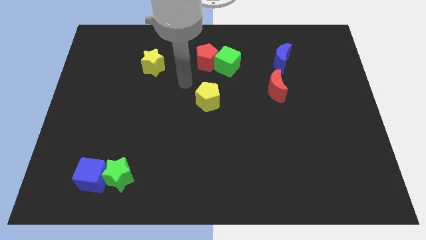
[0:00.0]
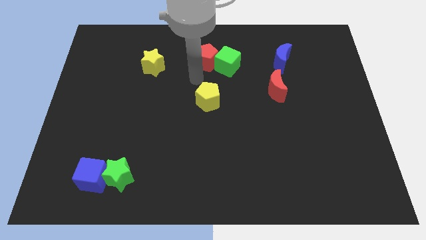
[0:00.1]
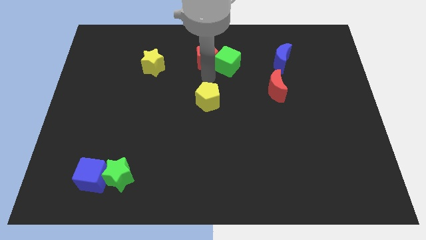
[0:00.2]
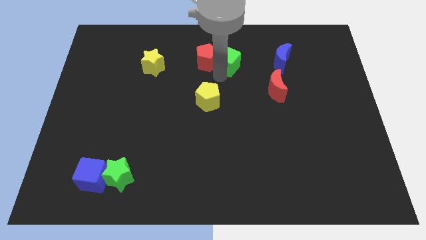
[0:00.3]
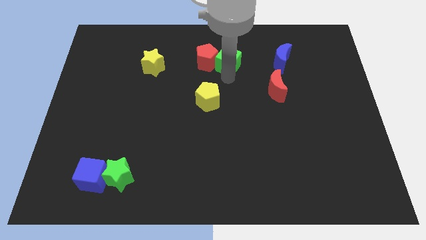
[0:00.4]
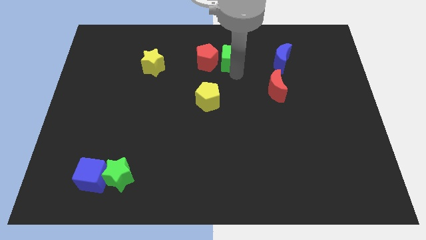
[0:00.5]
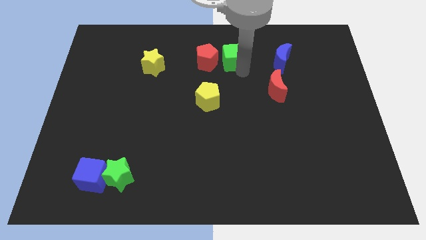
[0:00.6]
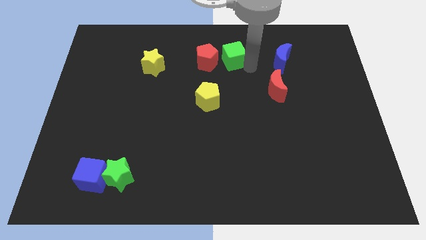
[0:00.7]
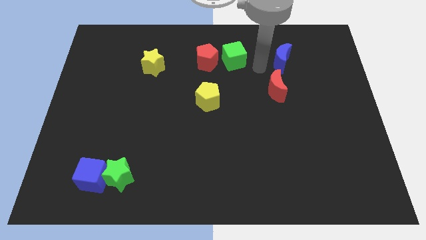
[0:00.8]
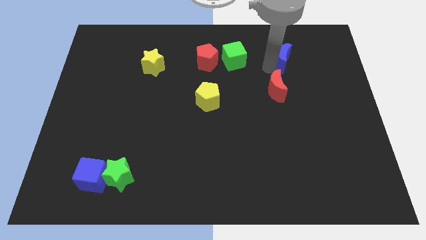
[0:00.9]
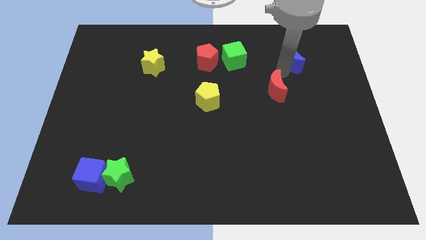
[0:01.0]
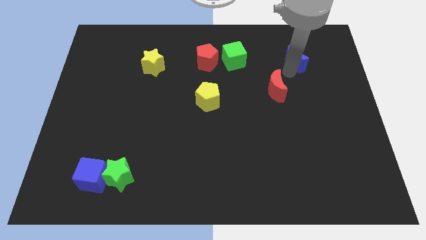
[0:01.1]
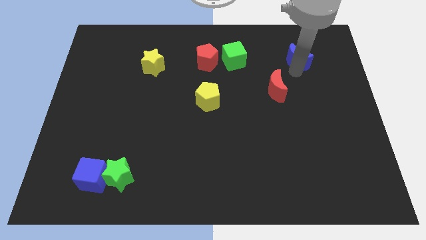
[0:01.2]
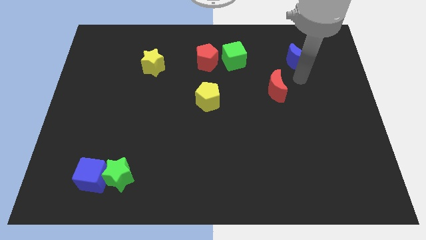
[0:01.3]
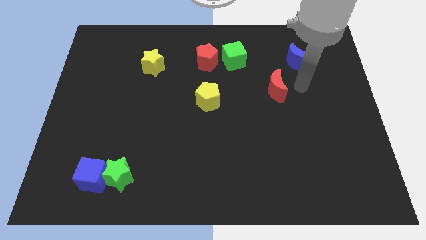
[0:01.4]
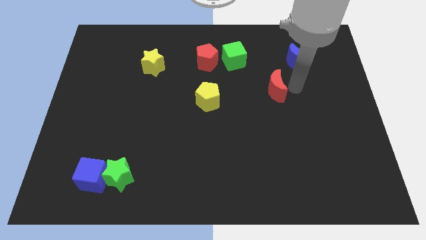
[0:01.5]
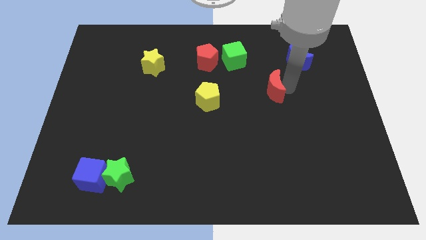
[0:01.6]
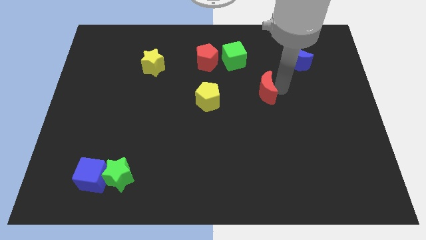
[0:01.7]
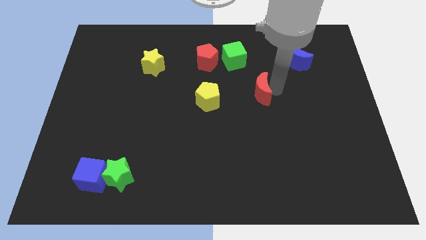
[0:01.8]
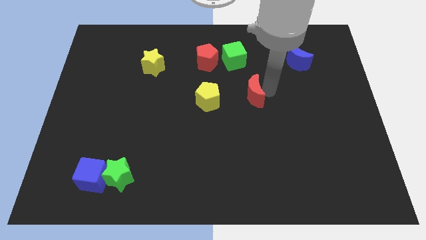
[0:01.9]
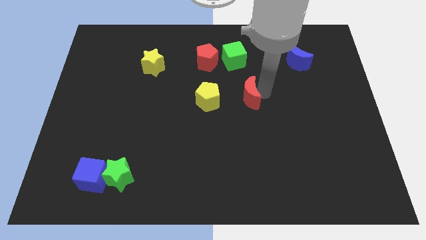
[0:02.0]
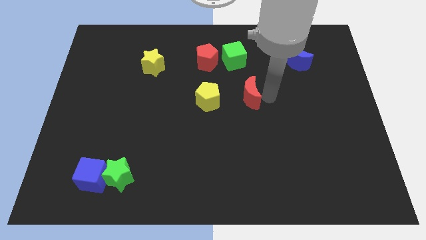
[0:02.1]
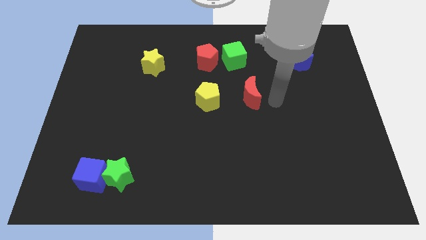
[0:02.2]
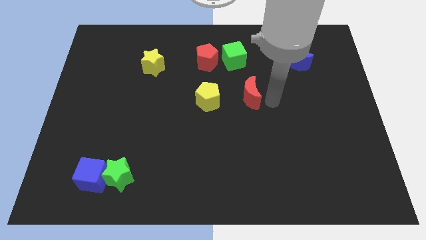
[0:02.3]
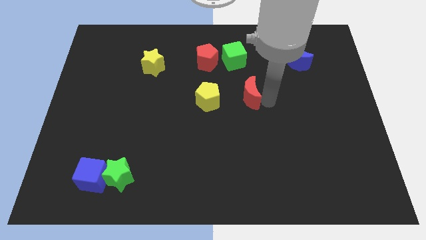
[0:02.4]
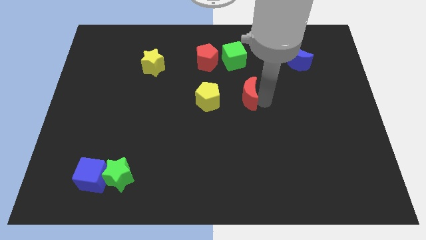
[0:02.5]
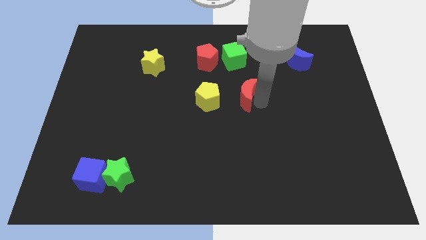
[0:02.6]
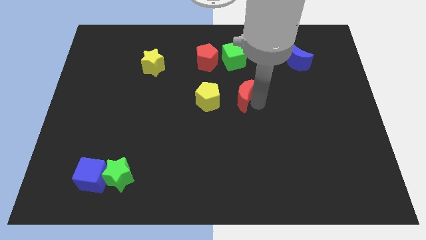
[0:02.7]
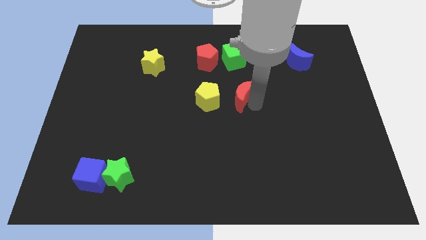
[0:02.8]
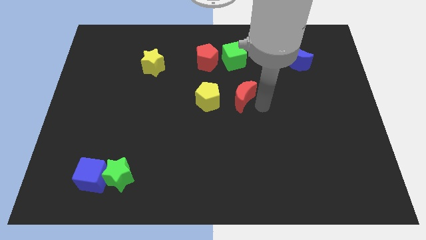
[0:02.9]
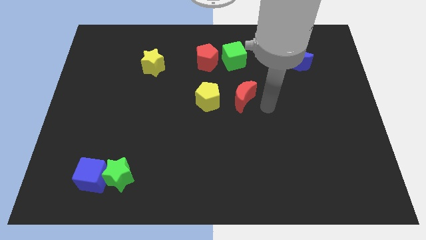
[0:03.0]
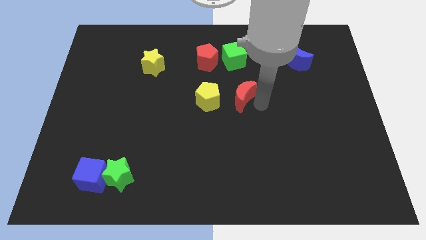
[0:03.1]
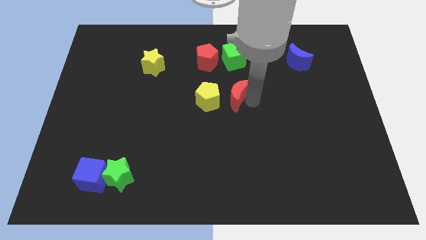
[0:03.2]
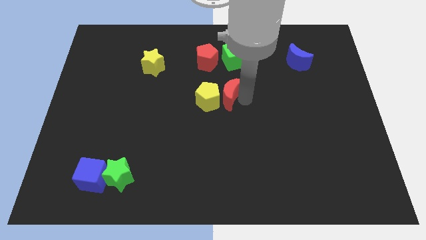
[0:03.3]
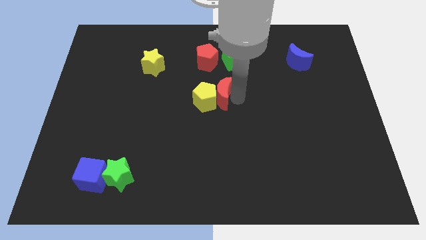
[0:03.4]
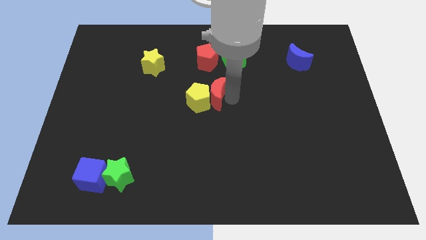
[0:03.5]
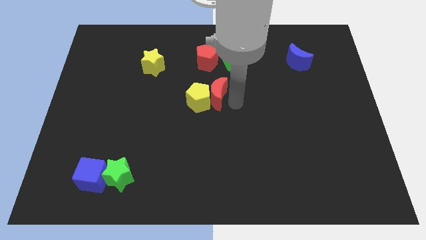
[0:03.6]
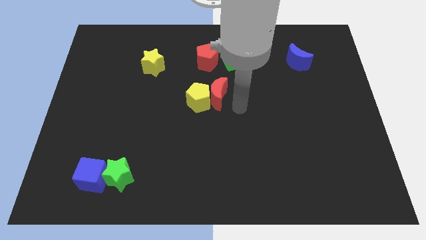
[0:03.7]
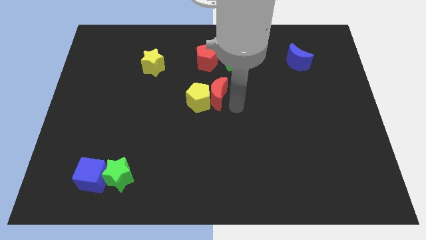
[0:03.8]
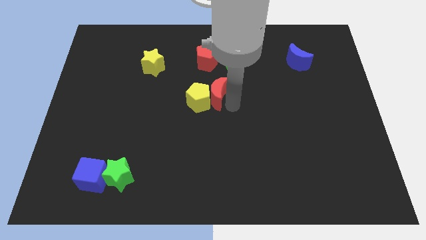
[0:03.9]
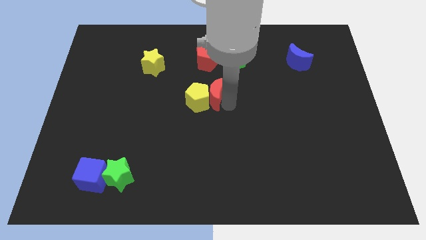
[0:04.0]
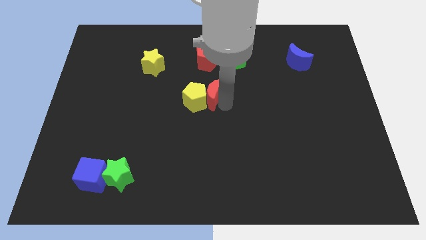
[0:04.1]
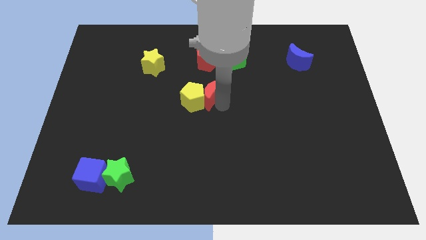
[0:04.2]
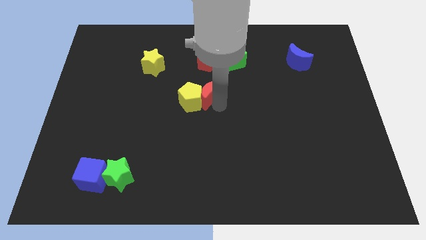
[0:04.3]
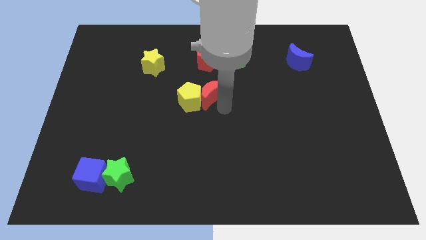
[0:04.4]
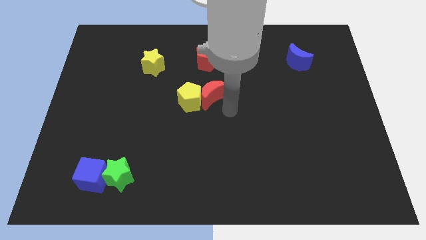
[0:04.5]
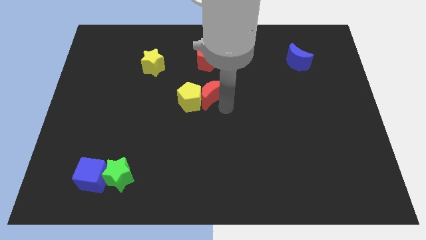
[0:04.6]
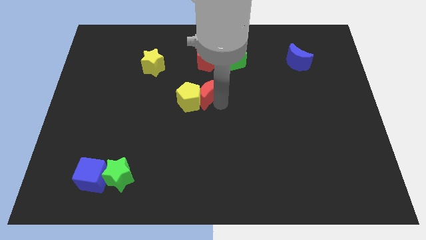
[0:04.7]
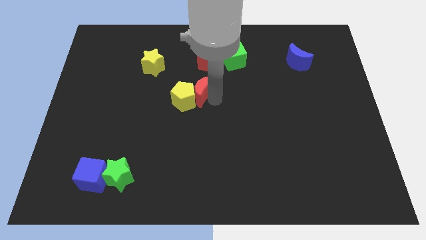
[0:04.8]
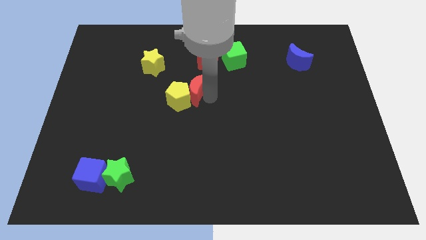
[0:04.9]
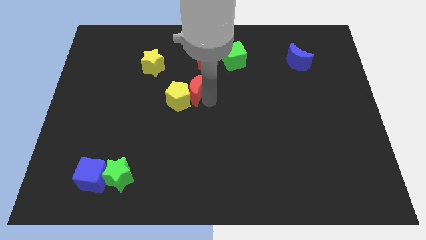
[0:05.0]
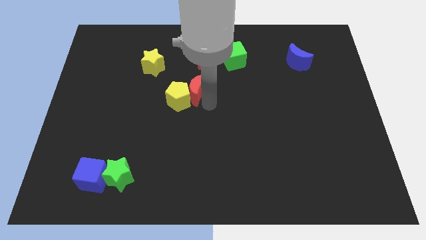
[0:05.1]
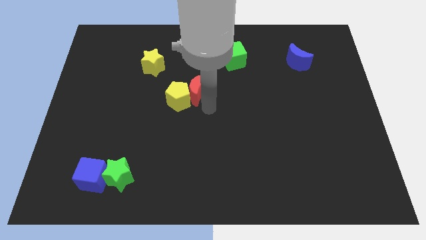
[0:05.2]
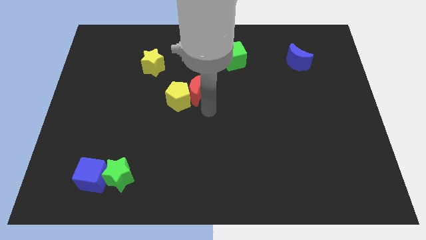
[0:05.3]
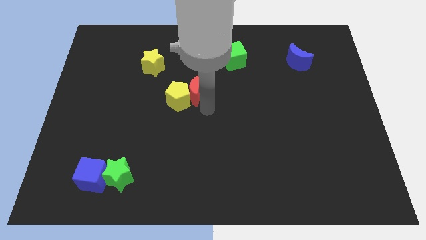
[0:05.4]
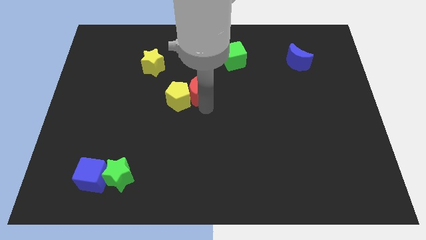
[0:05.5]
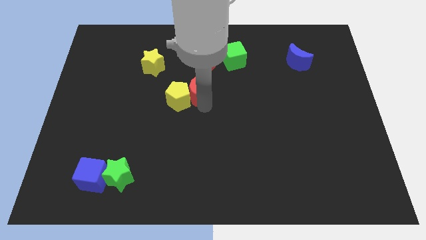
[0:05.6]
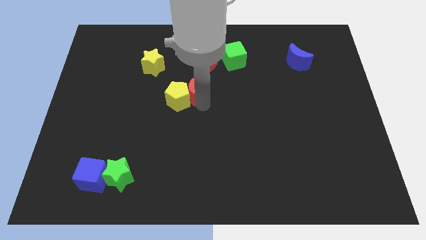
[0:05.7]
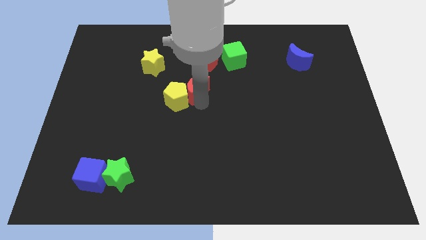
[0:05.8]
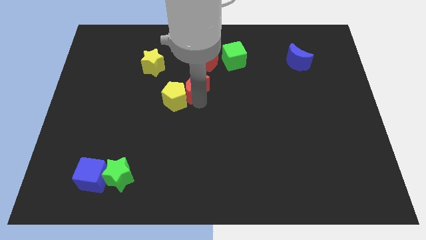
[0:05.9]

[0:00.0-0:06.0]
slide the red moon left

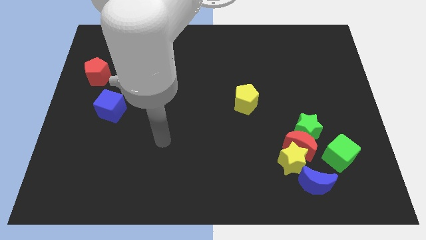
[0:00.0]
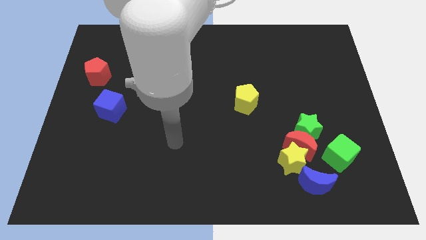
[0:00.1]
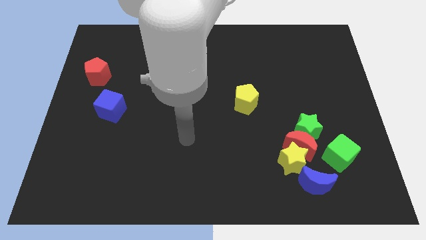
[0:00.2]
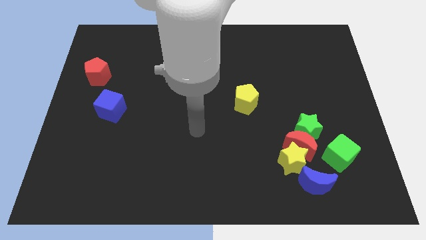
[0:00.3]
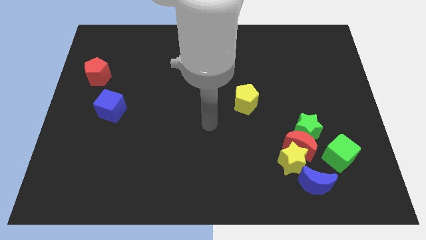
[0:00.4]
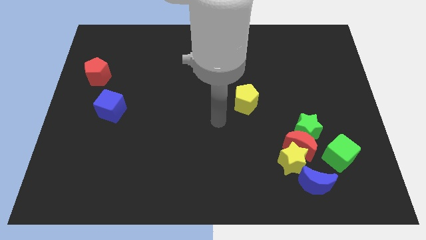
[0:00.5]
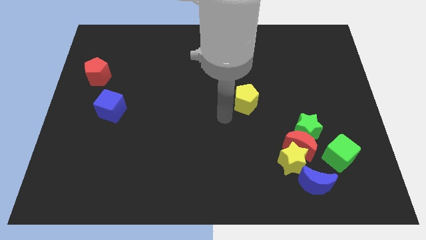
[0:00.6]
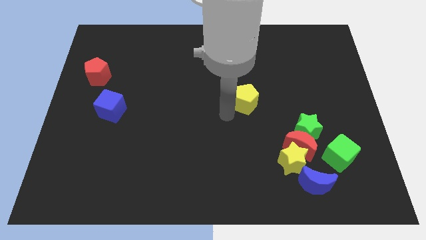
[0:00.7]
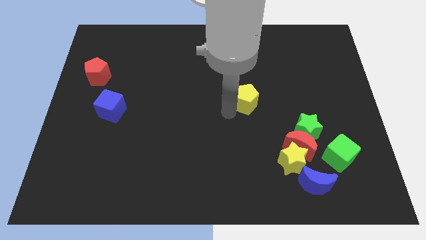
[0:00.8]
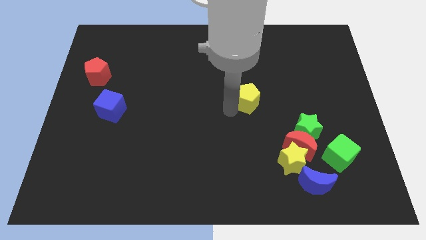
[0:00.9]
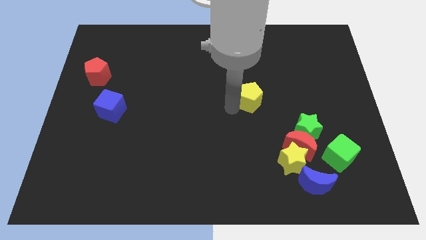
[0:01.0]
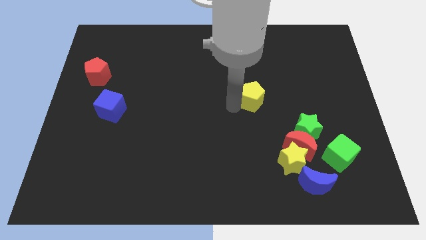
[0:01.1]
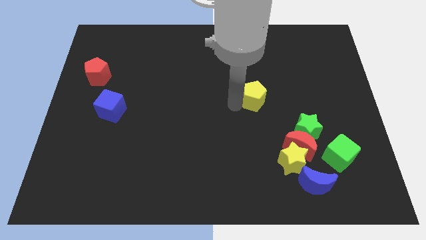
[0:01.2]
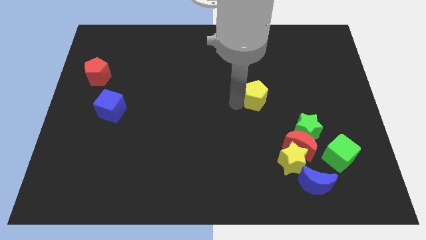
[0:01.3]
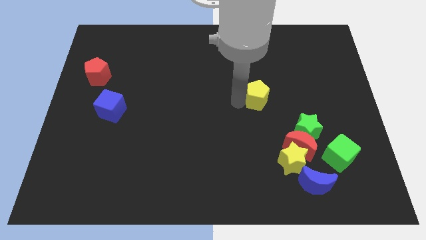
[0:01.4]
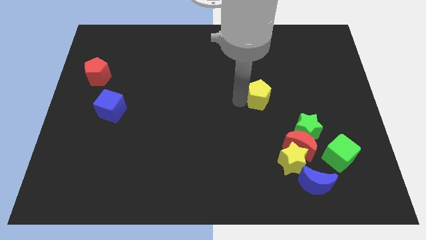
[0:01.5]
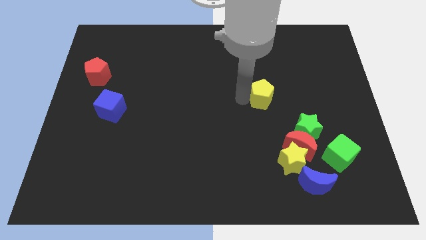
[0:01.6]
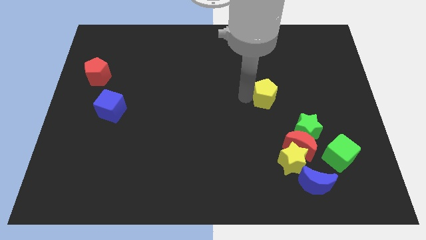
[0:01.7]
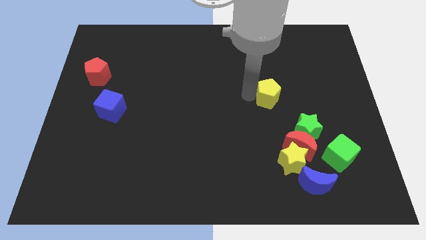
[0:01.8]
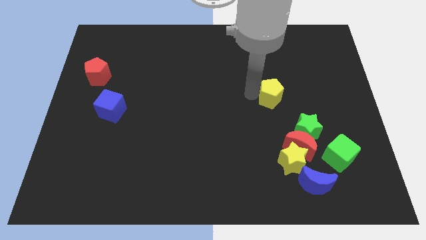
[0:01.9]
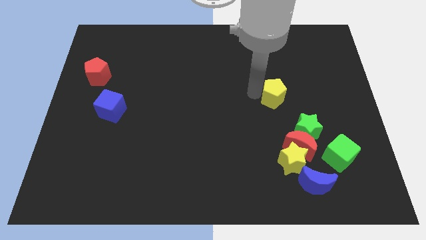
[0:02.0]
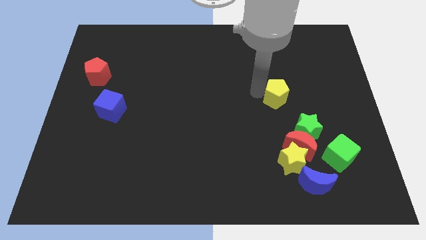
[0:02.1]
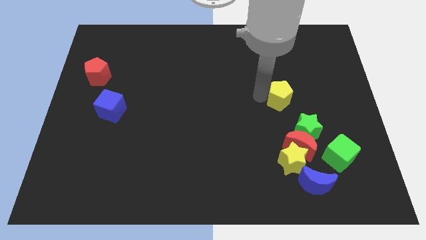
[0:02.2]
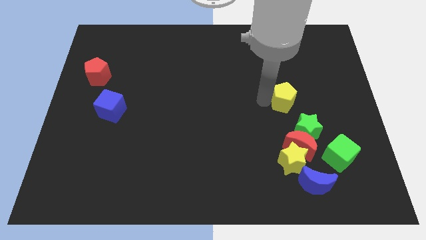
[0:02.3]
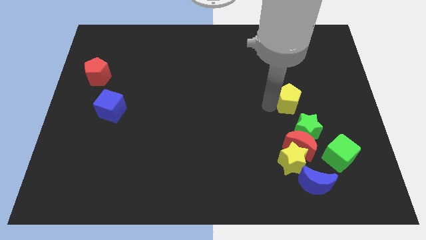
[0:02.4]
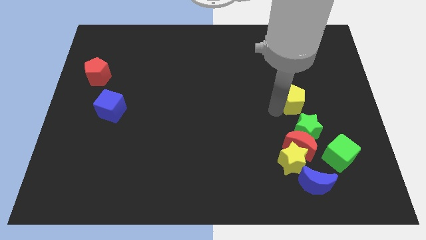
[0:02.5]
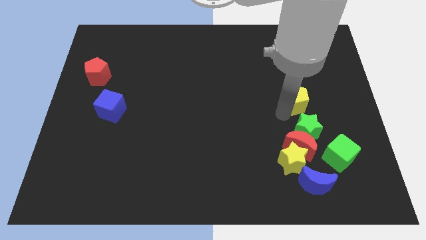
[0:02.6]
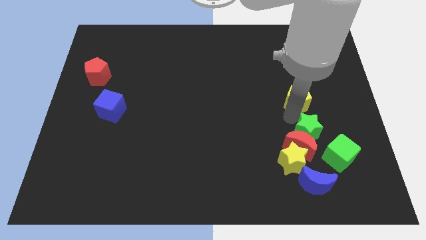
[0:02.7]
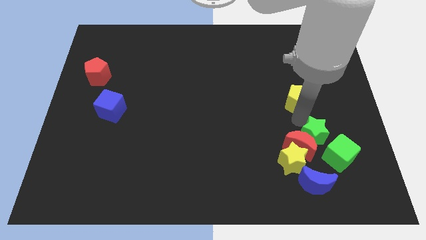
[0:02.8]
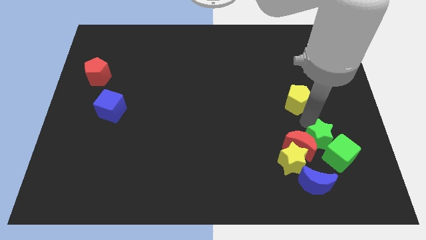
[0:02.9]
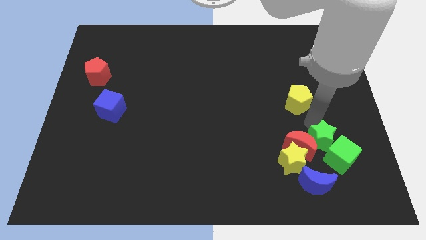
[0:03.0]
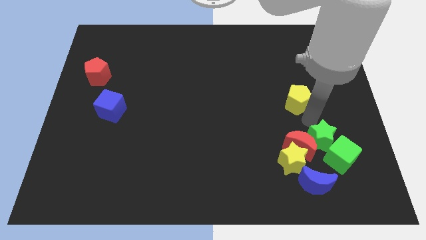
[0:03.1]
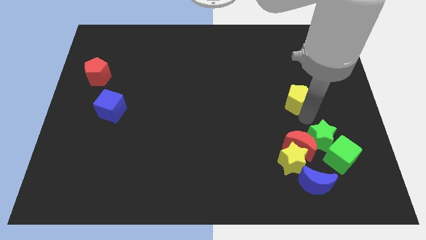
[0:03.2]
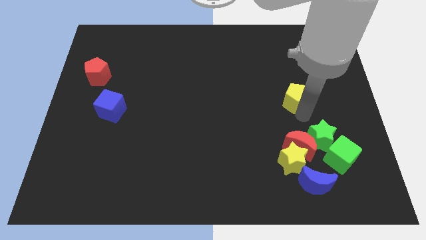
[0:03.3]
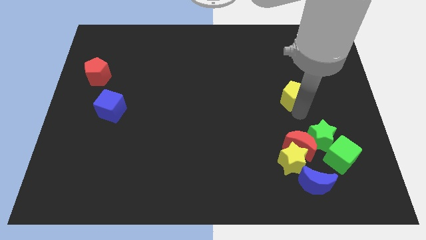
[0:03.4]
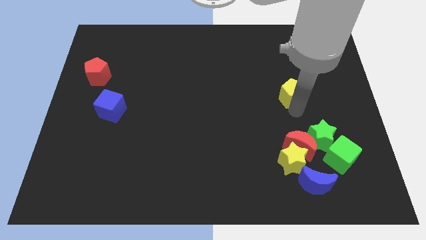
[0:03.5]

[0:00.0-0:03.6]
slightly push the yellow pentagon upwards and to the right
